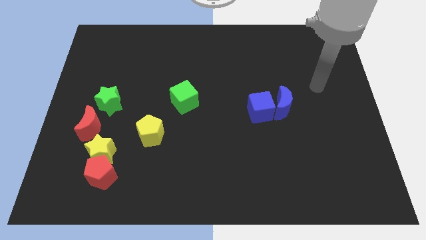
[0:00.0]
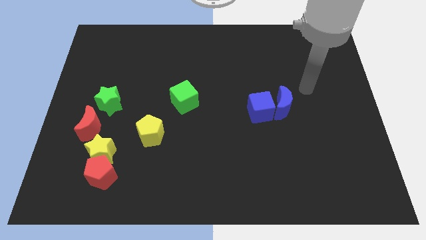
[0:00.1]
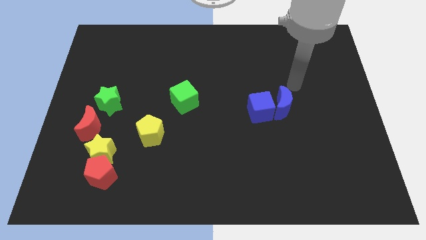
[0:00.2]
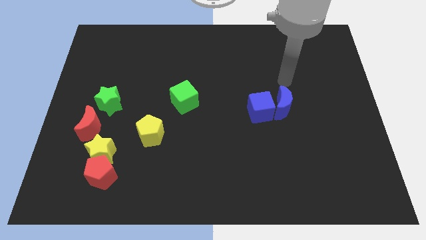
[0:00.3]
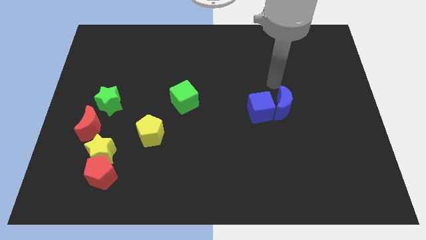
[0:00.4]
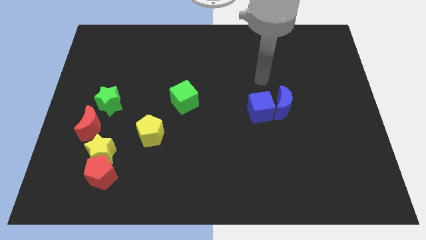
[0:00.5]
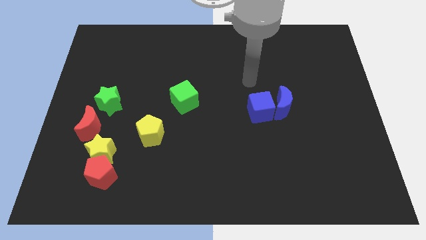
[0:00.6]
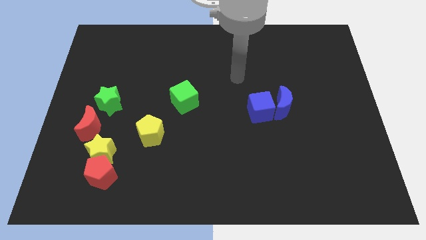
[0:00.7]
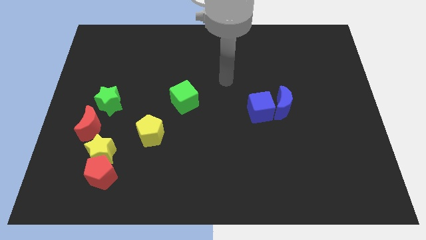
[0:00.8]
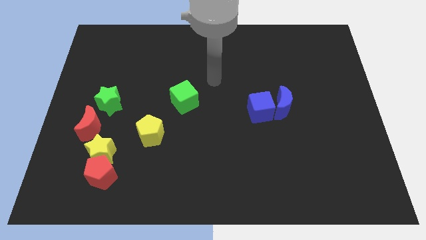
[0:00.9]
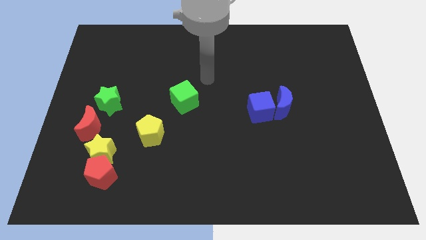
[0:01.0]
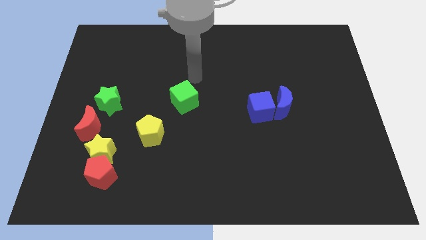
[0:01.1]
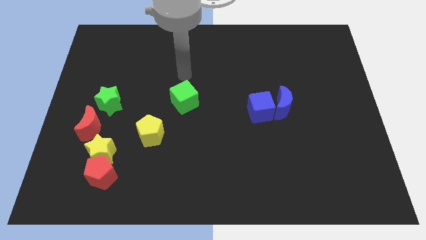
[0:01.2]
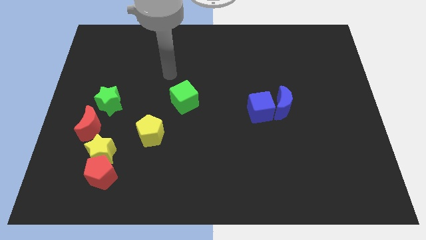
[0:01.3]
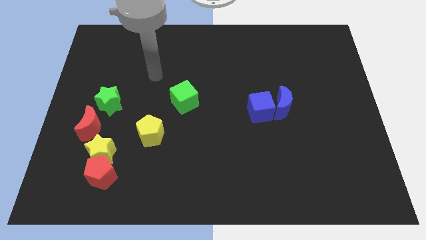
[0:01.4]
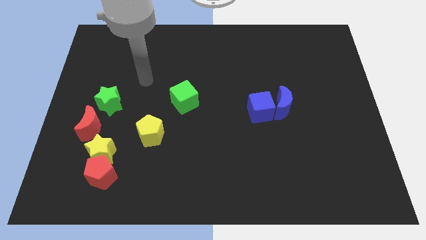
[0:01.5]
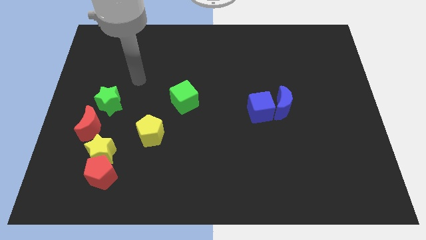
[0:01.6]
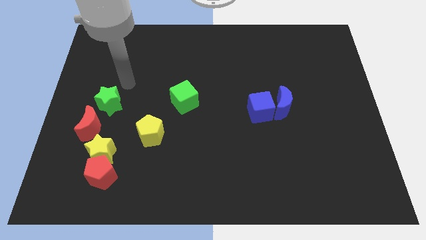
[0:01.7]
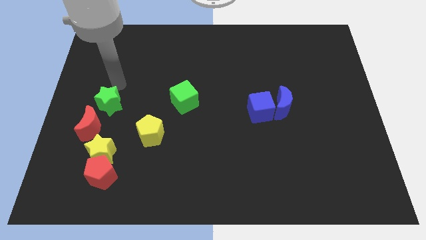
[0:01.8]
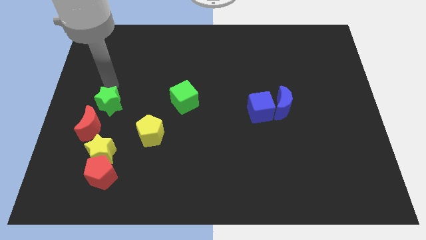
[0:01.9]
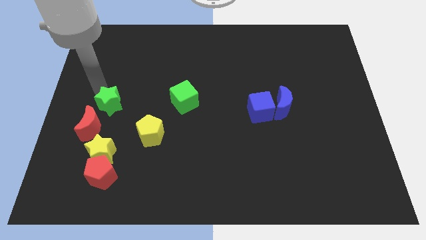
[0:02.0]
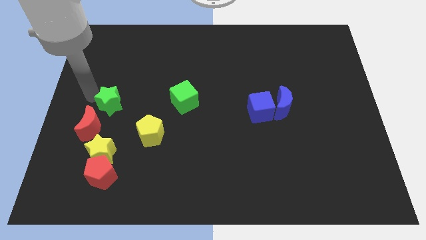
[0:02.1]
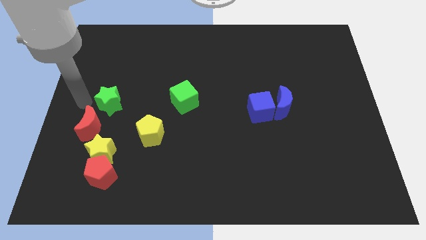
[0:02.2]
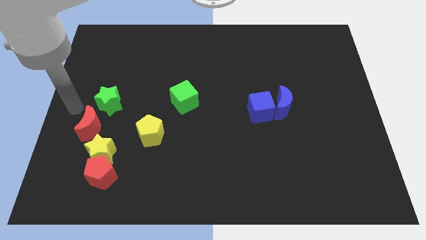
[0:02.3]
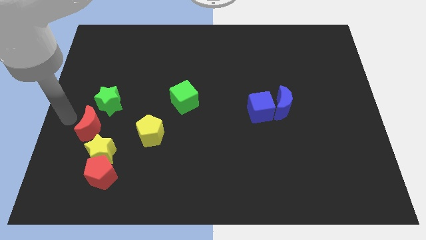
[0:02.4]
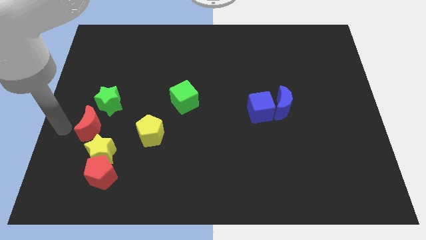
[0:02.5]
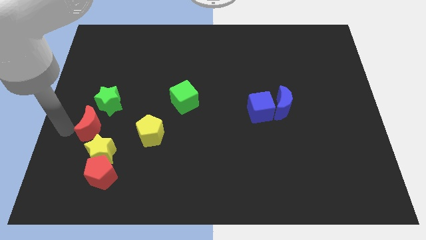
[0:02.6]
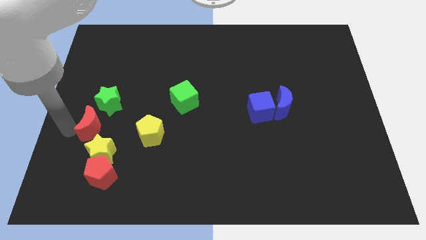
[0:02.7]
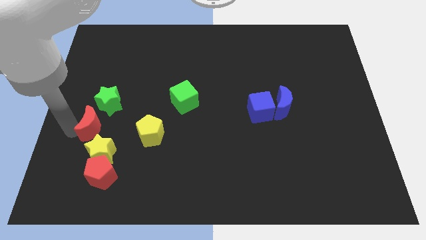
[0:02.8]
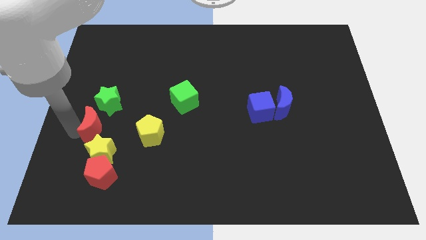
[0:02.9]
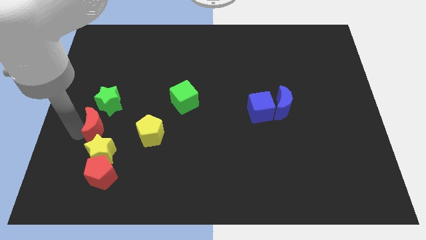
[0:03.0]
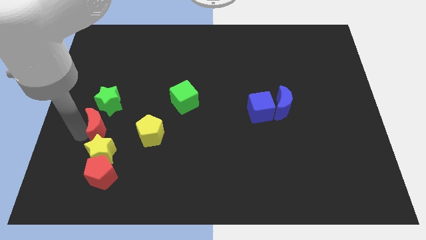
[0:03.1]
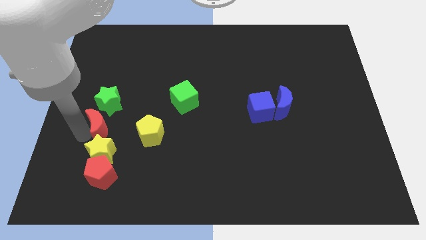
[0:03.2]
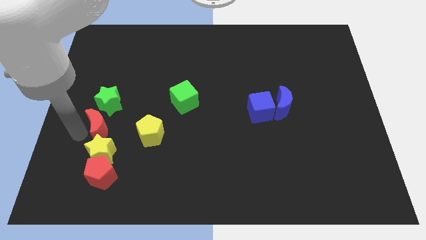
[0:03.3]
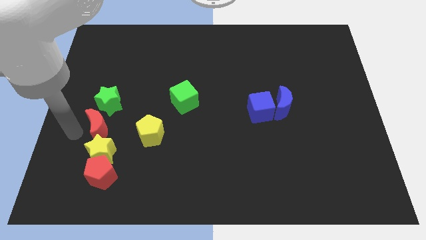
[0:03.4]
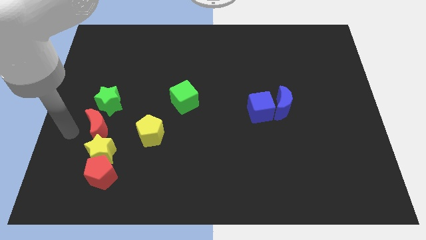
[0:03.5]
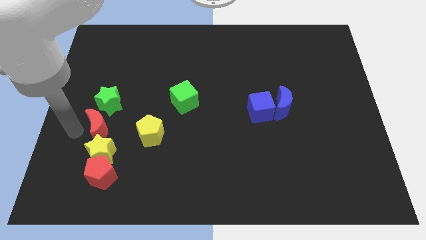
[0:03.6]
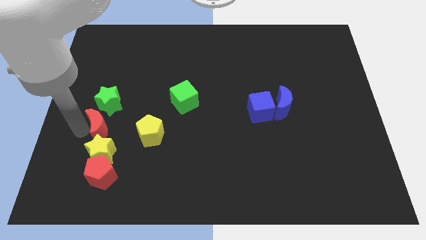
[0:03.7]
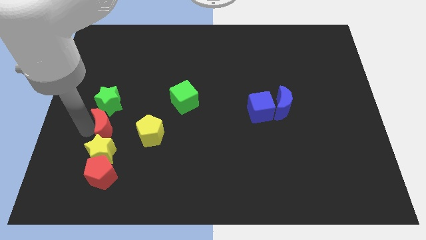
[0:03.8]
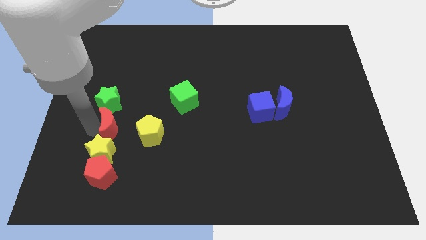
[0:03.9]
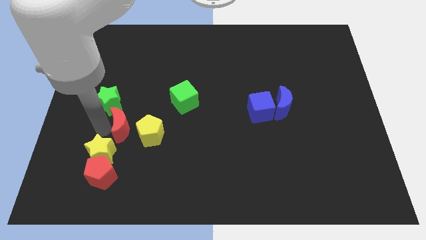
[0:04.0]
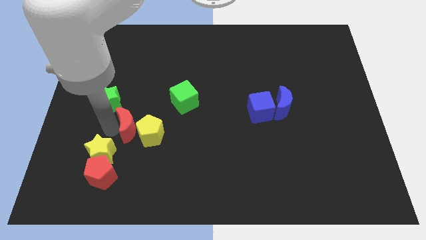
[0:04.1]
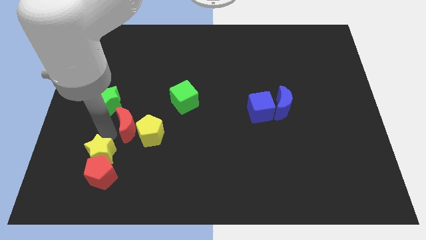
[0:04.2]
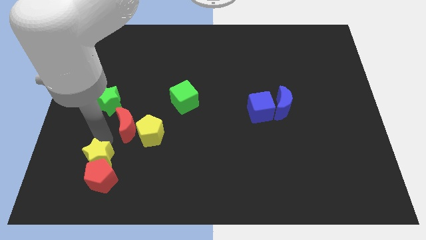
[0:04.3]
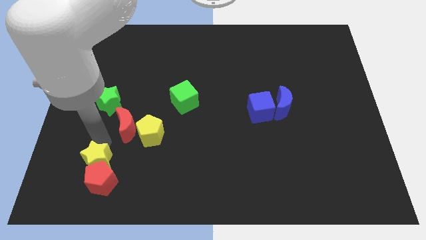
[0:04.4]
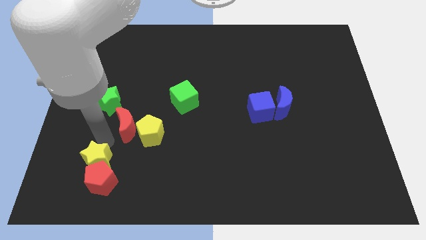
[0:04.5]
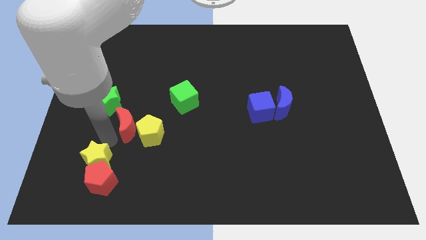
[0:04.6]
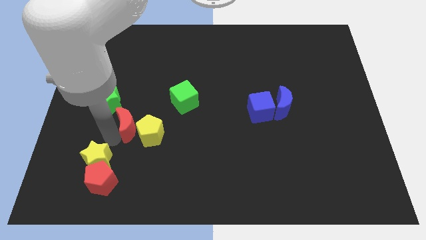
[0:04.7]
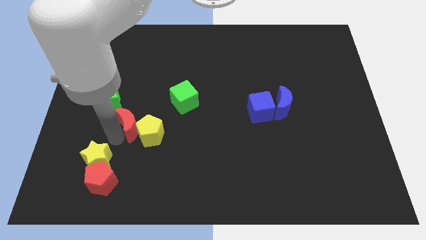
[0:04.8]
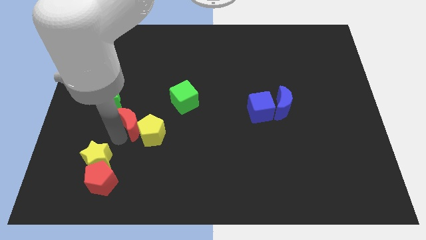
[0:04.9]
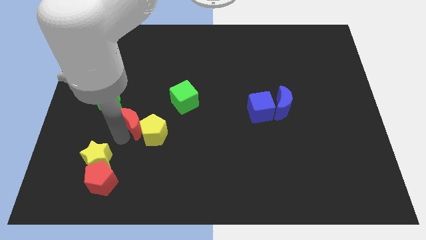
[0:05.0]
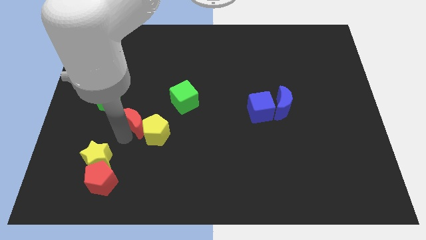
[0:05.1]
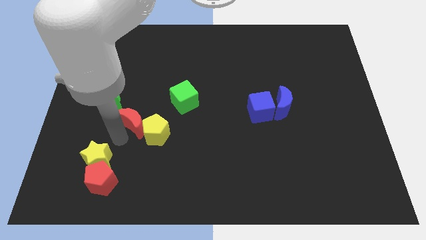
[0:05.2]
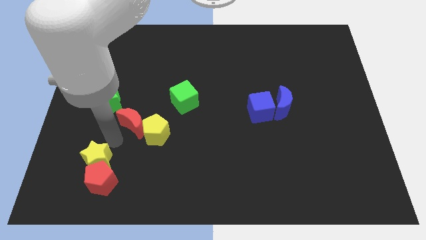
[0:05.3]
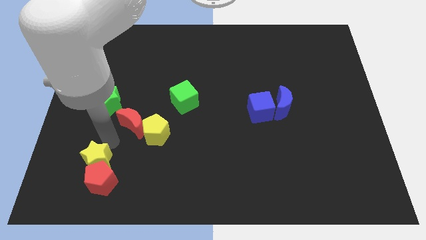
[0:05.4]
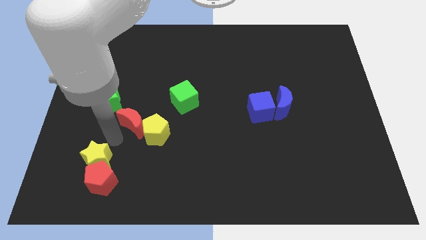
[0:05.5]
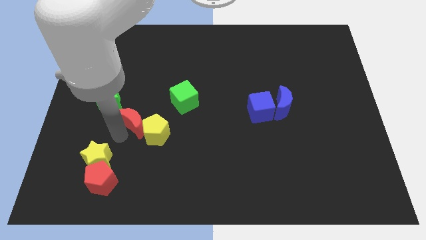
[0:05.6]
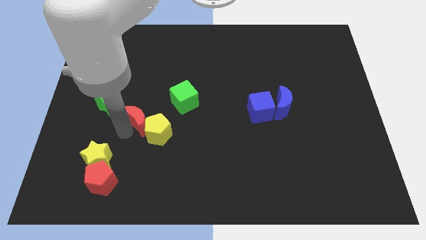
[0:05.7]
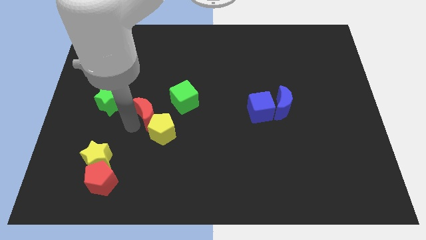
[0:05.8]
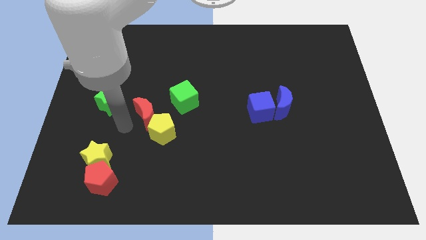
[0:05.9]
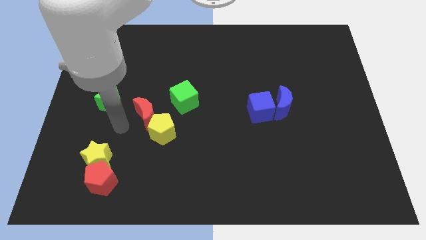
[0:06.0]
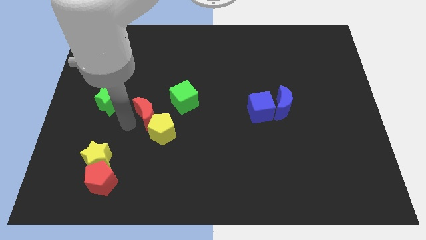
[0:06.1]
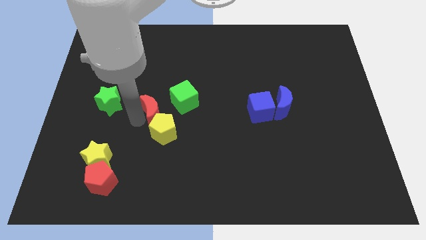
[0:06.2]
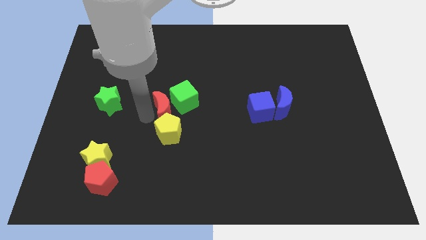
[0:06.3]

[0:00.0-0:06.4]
push the red moon close to the green cube
